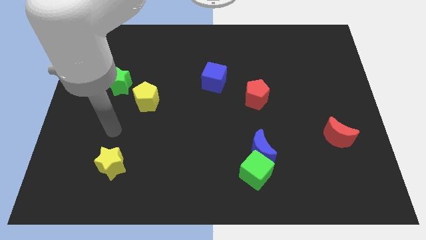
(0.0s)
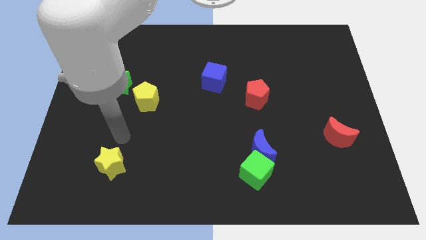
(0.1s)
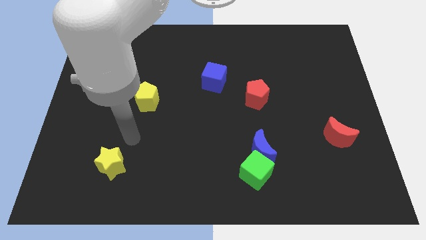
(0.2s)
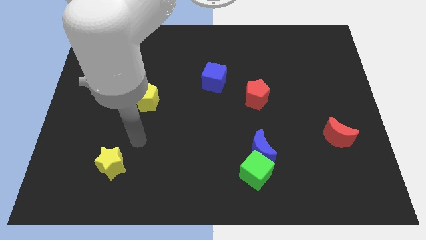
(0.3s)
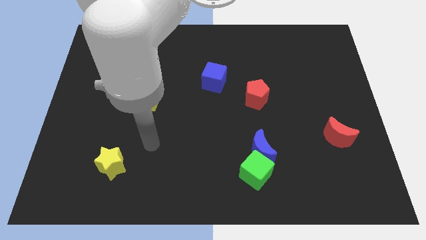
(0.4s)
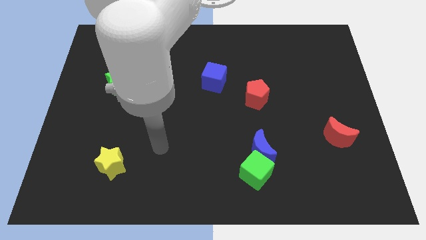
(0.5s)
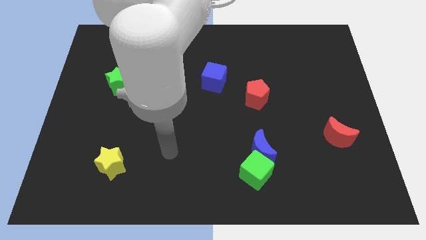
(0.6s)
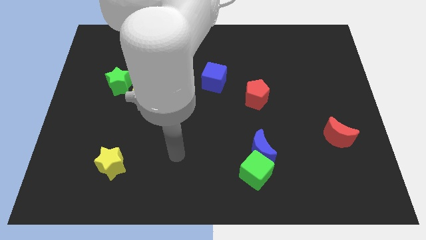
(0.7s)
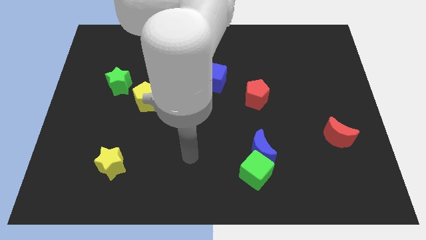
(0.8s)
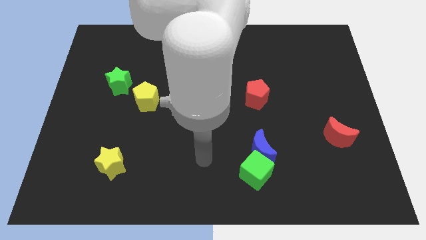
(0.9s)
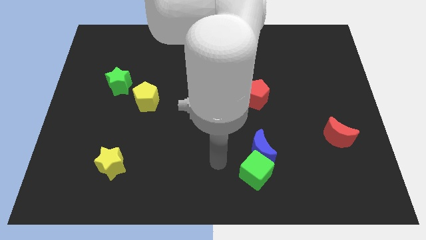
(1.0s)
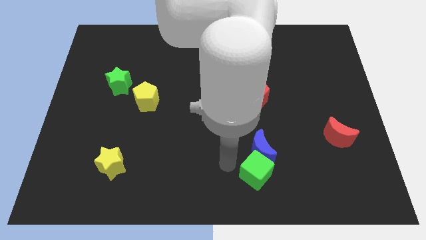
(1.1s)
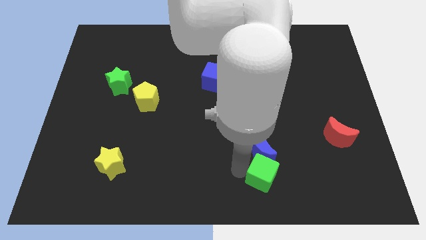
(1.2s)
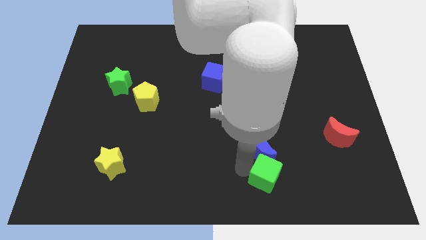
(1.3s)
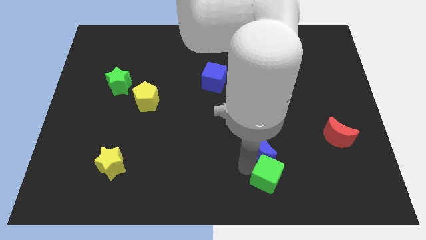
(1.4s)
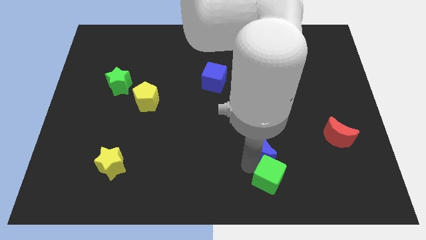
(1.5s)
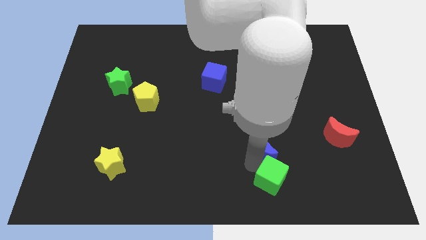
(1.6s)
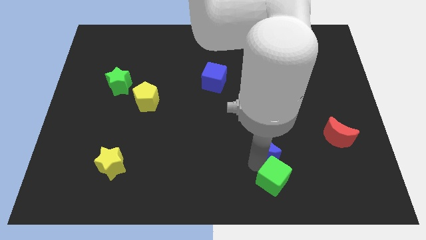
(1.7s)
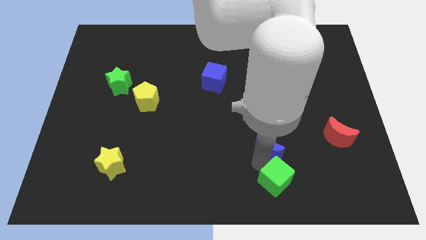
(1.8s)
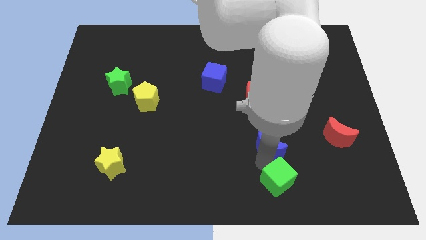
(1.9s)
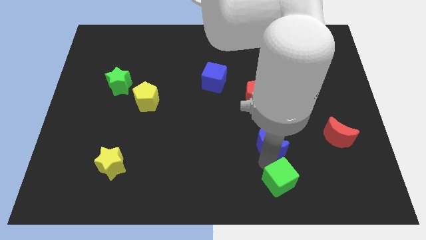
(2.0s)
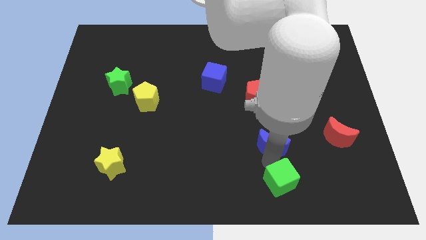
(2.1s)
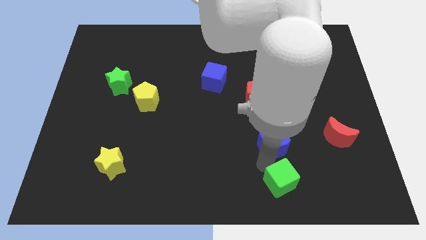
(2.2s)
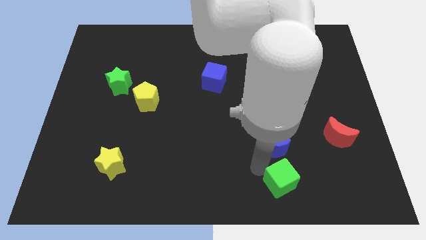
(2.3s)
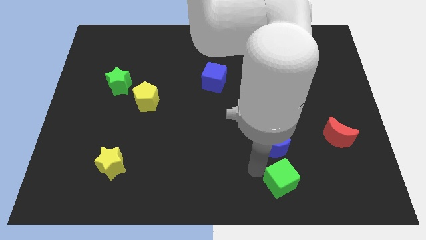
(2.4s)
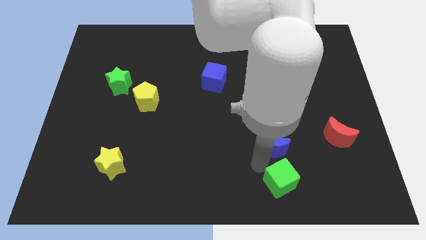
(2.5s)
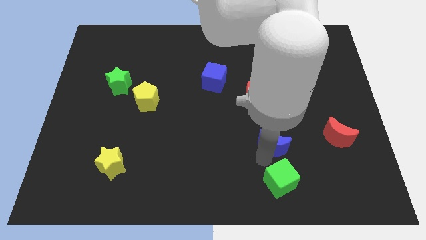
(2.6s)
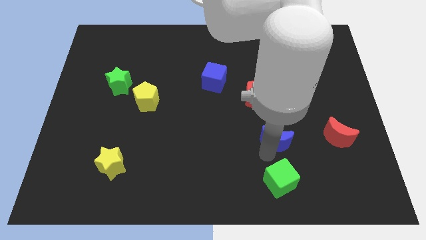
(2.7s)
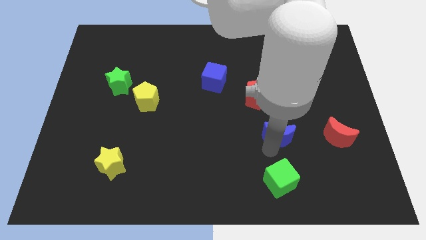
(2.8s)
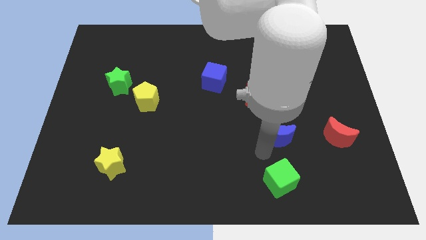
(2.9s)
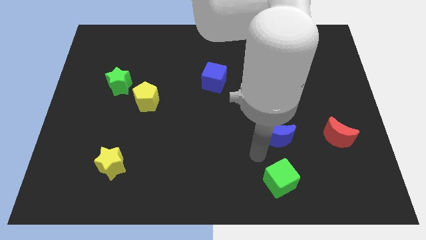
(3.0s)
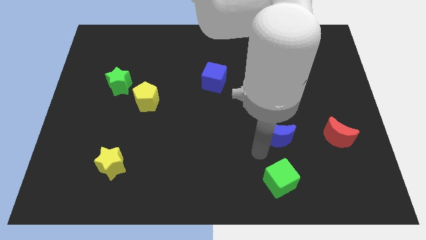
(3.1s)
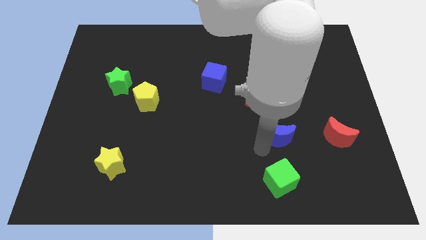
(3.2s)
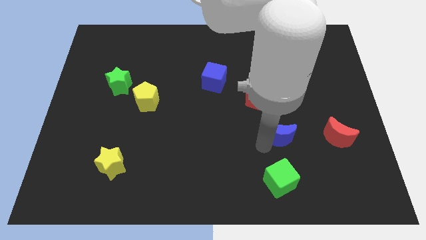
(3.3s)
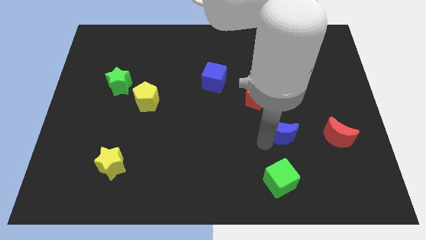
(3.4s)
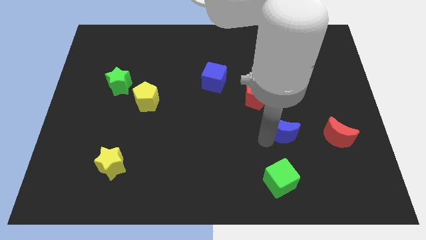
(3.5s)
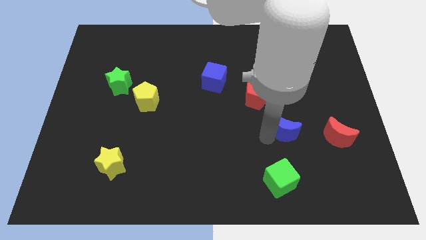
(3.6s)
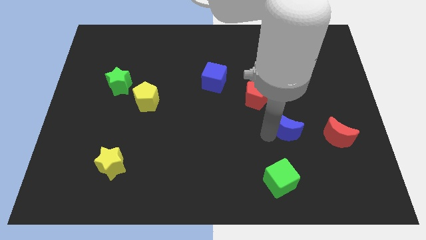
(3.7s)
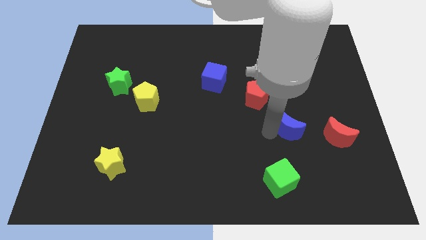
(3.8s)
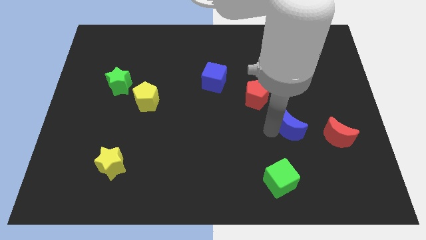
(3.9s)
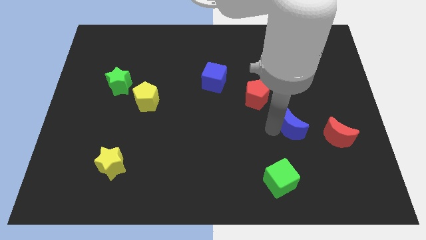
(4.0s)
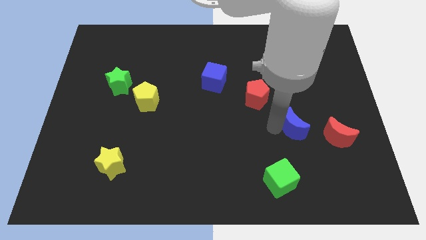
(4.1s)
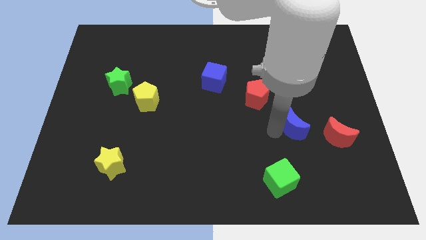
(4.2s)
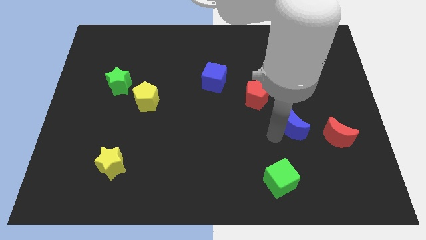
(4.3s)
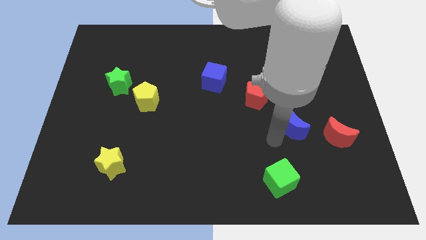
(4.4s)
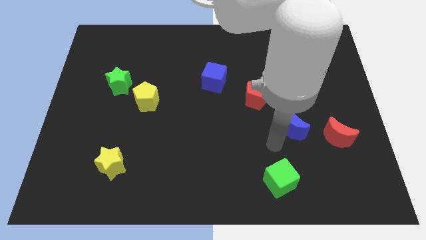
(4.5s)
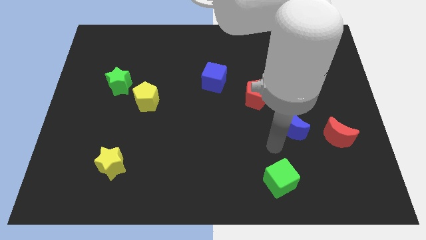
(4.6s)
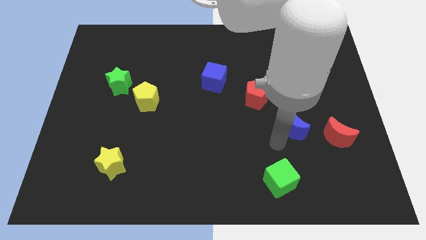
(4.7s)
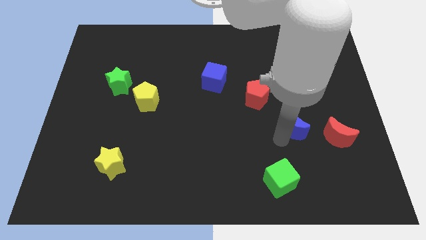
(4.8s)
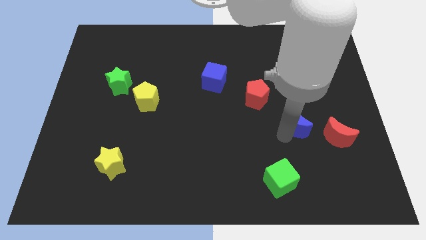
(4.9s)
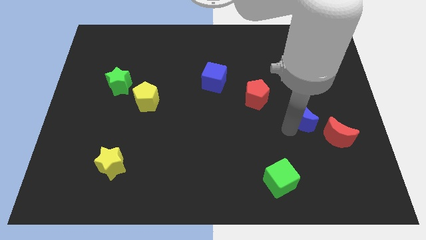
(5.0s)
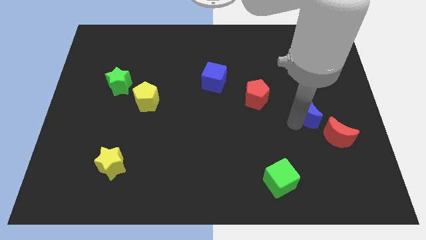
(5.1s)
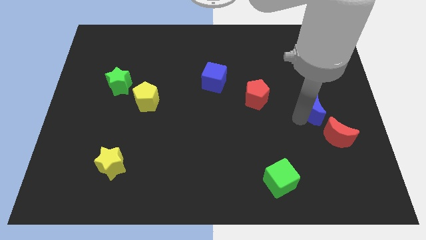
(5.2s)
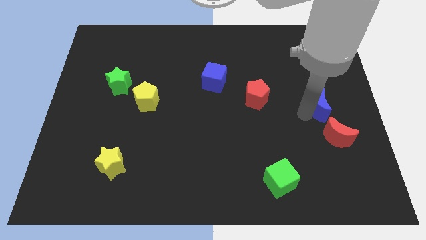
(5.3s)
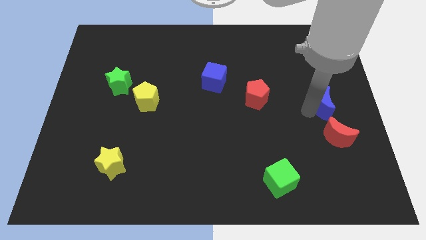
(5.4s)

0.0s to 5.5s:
push the blue moon to the right side of the board
